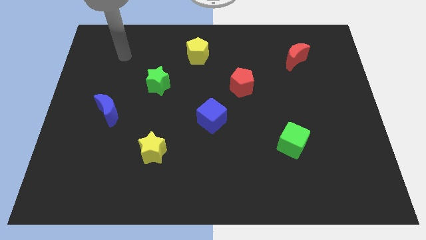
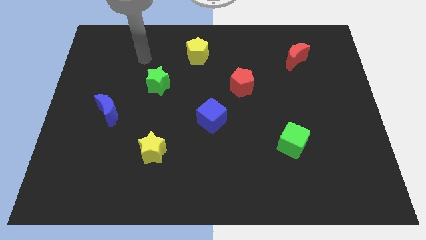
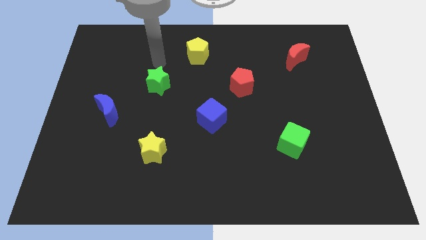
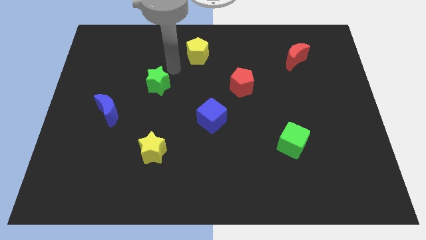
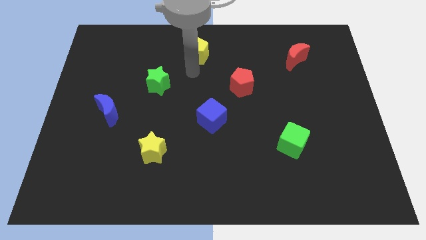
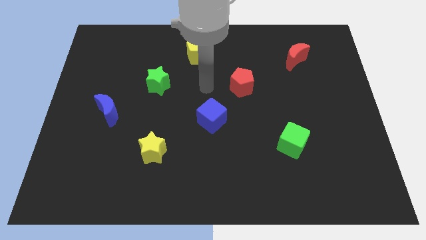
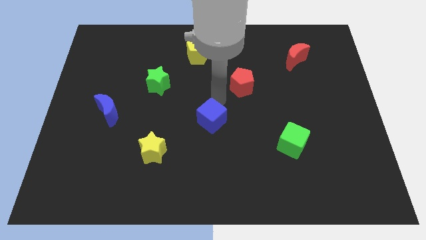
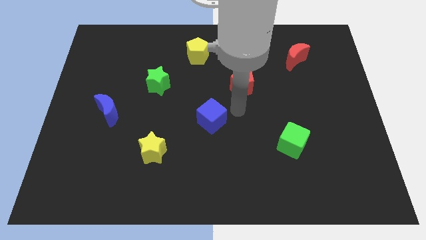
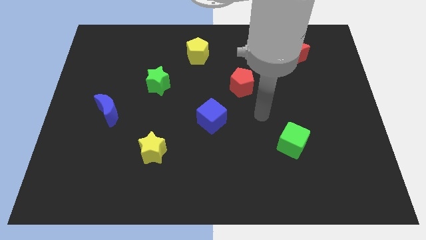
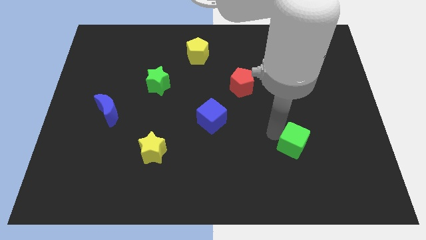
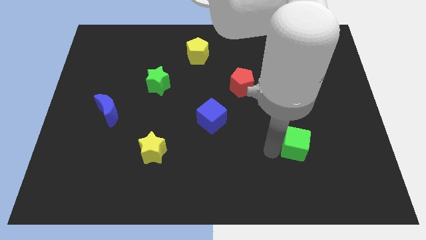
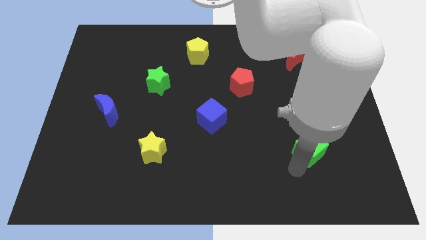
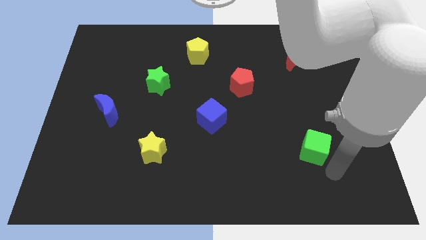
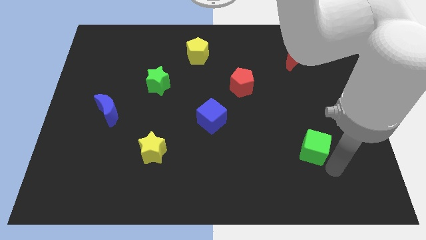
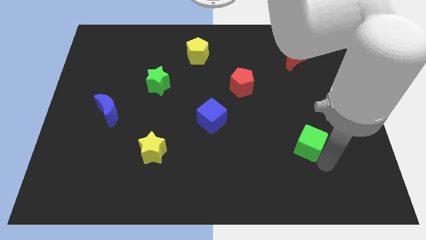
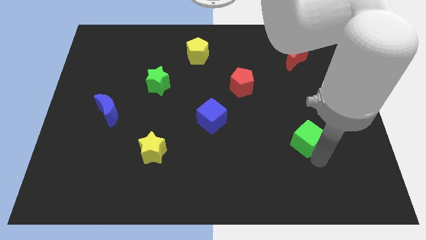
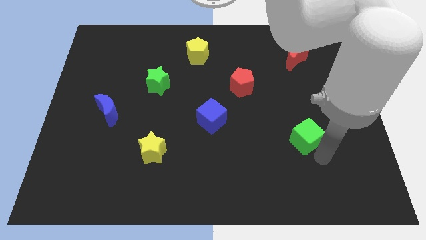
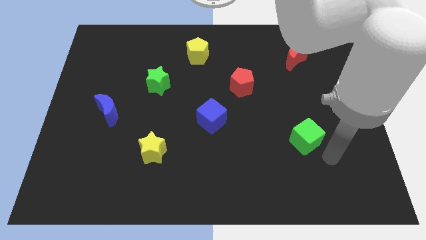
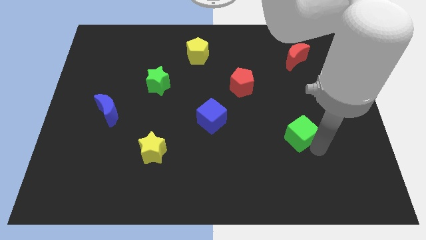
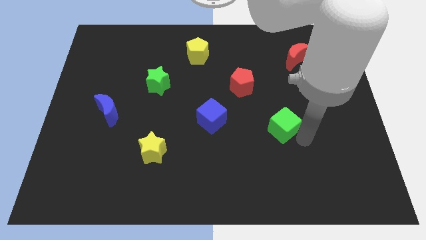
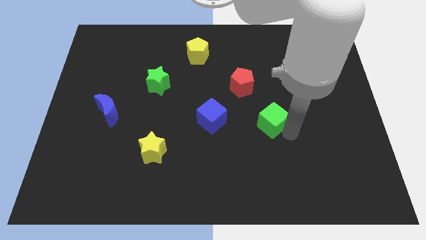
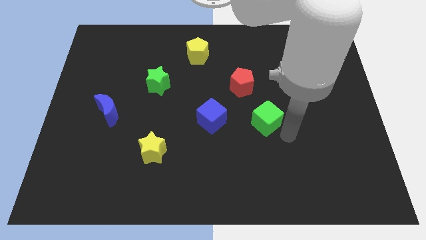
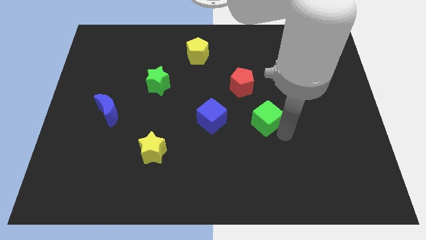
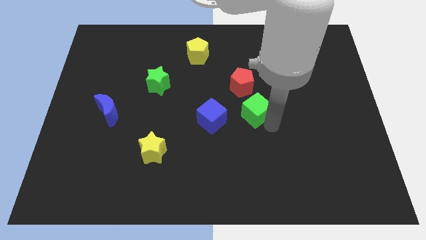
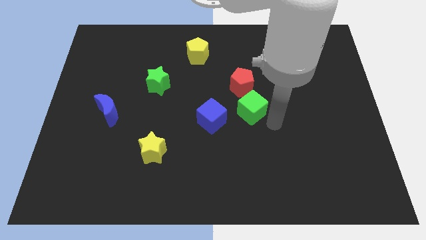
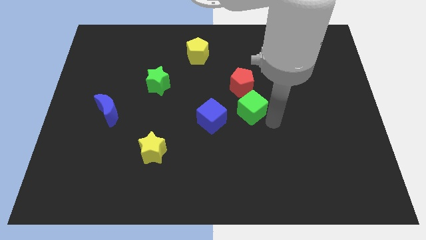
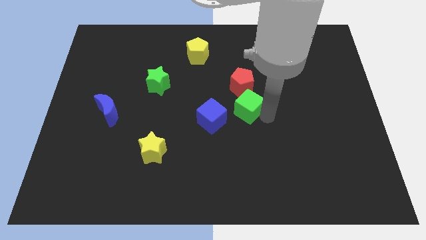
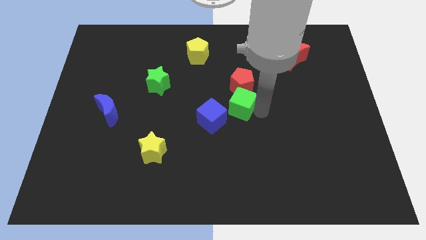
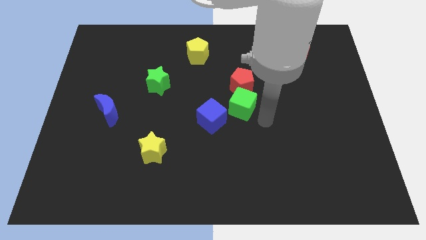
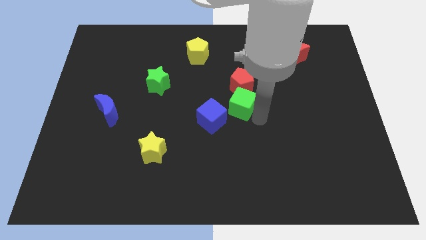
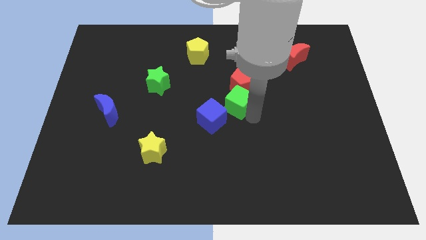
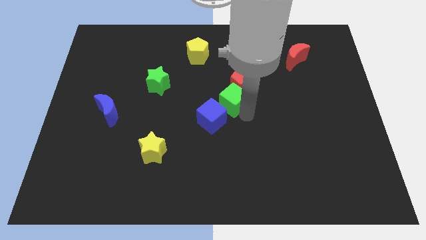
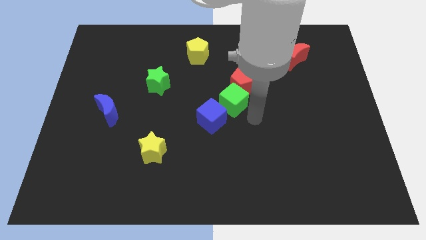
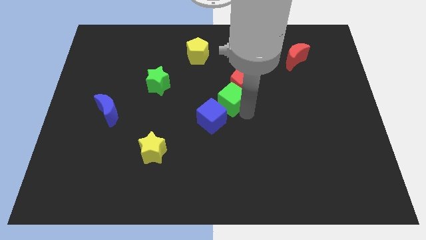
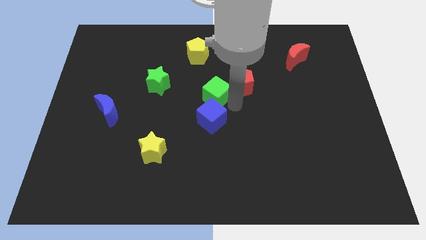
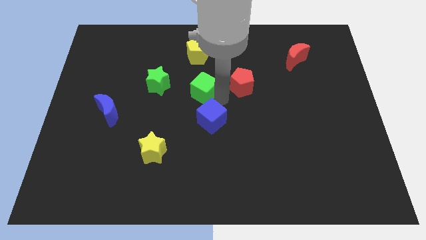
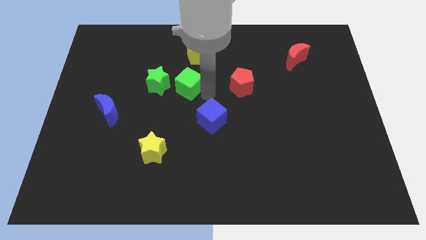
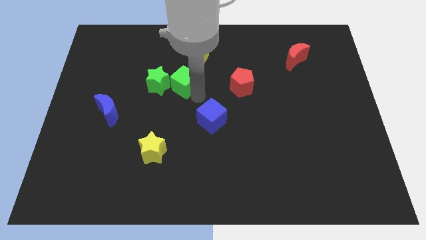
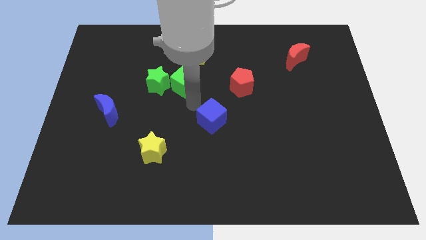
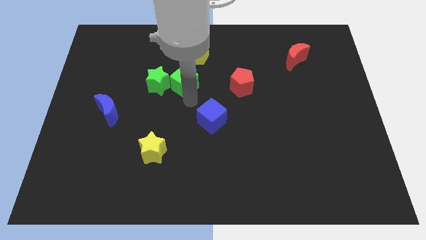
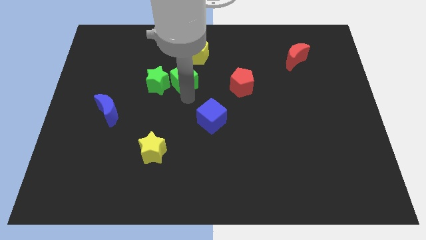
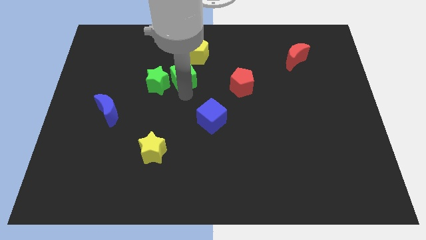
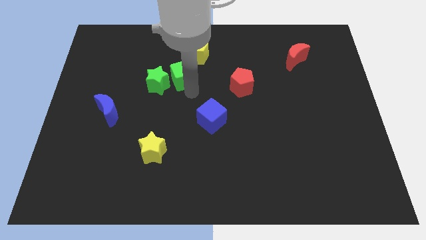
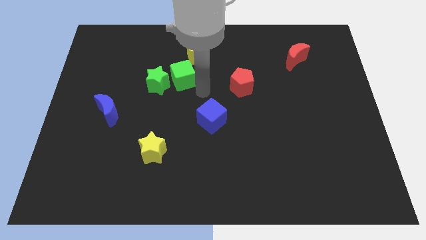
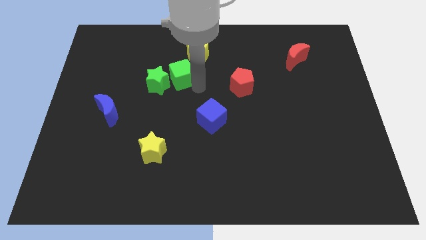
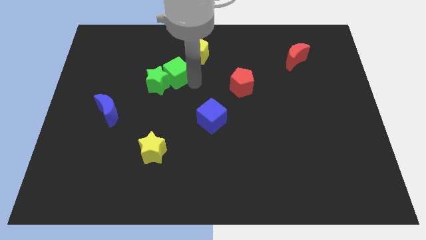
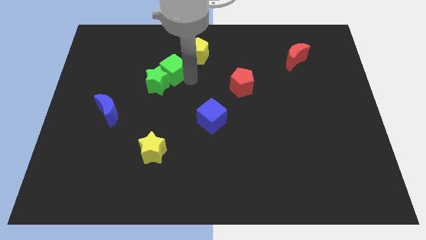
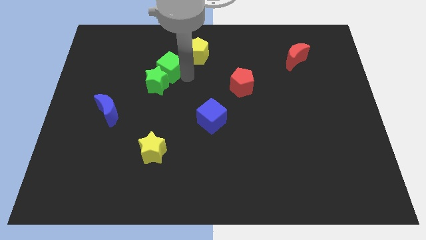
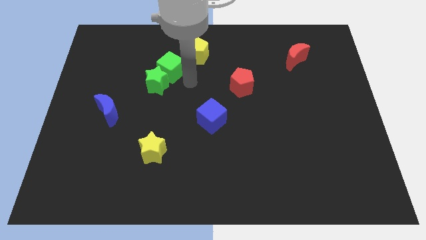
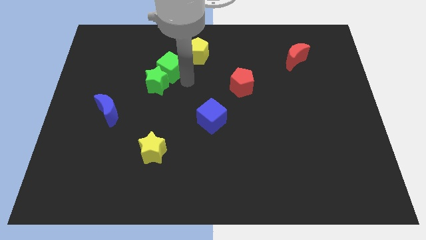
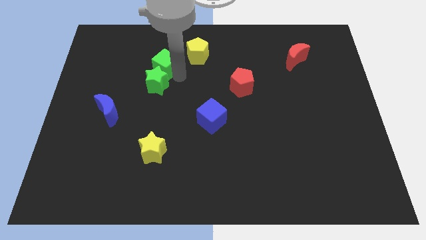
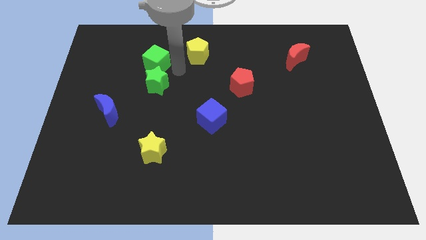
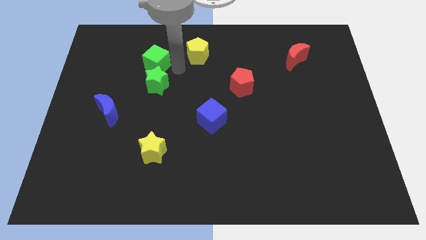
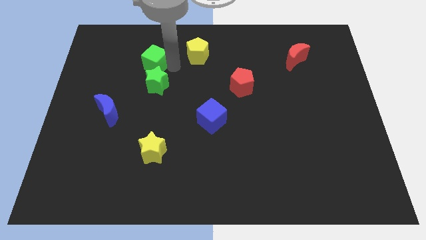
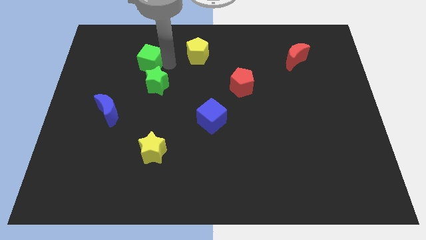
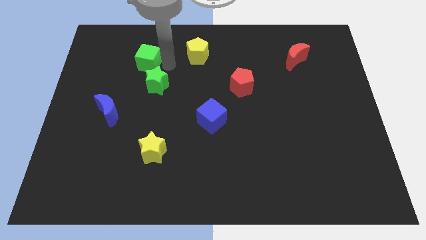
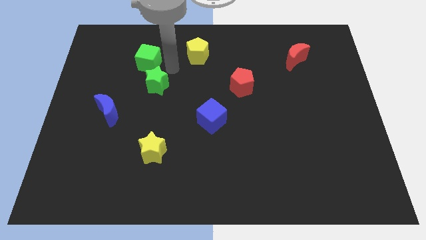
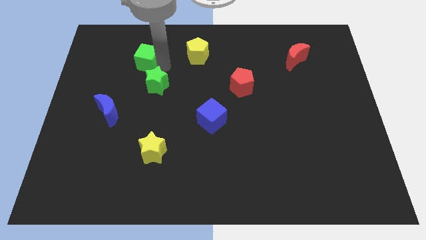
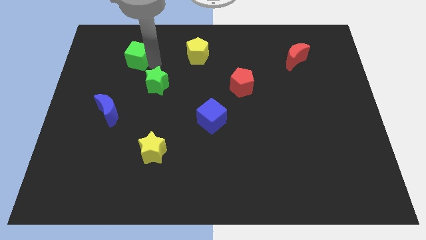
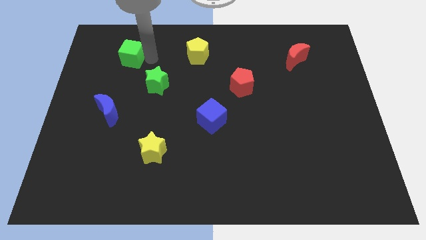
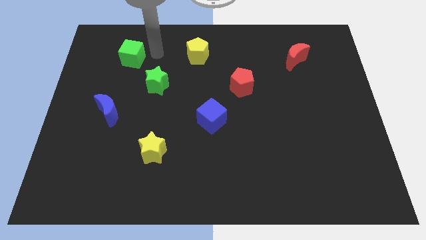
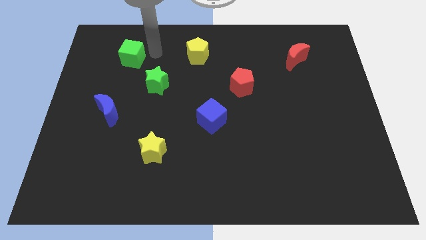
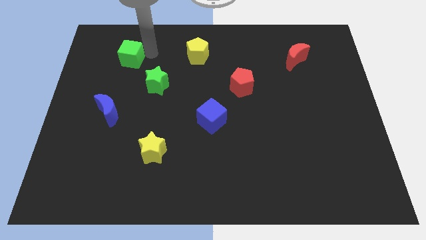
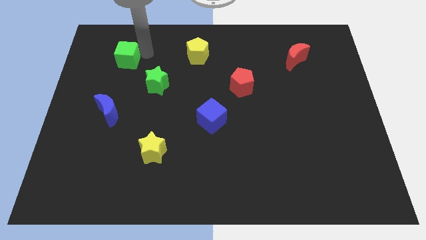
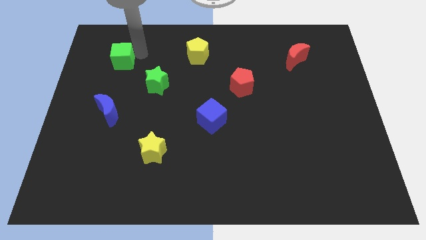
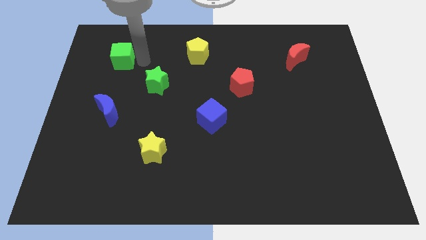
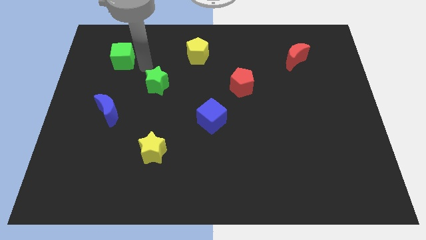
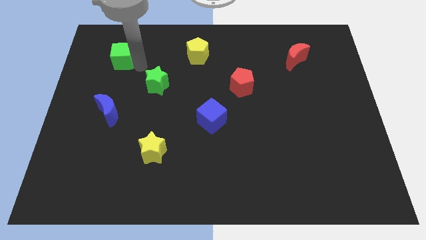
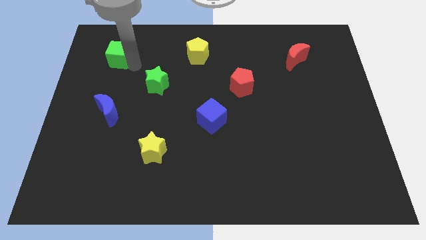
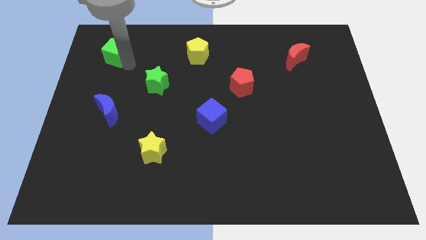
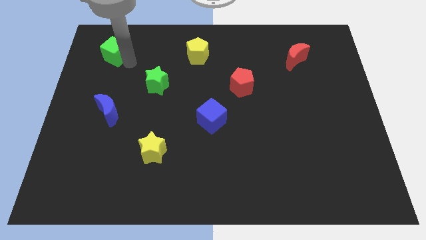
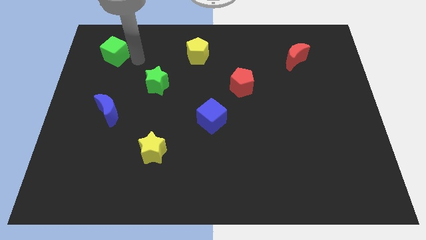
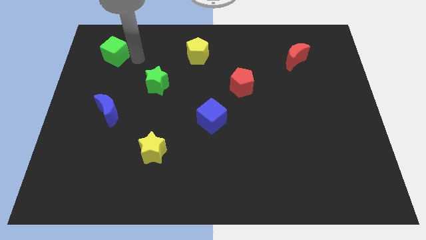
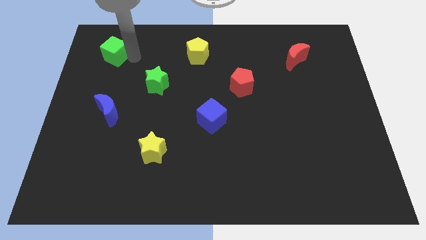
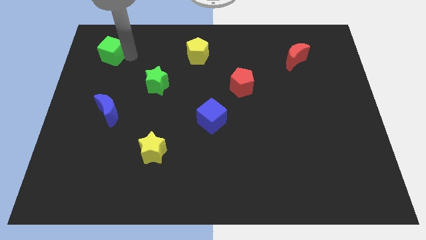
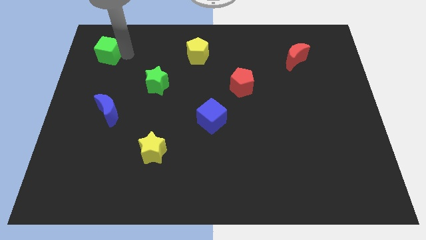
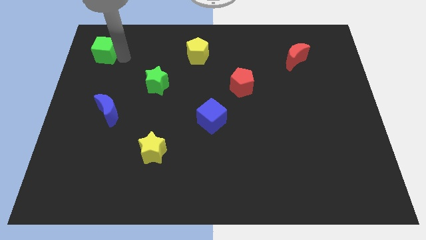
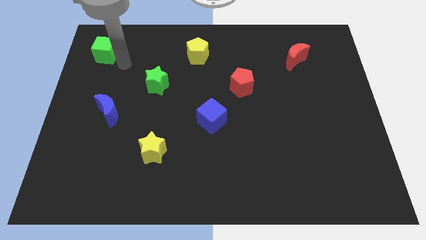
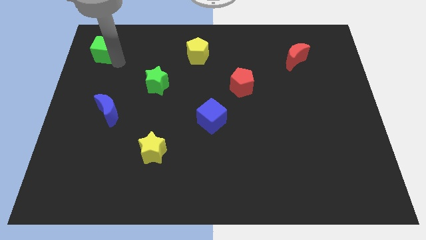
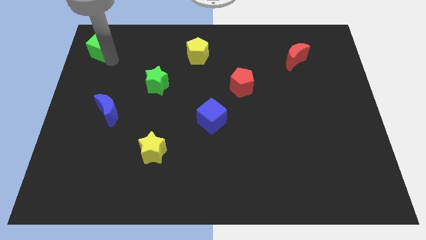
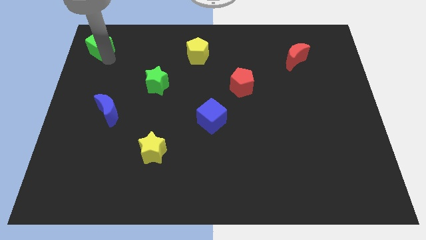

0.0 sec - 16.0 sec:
move the green cube to the top left
